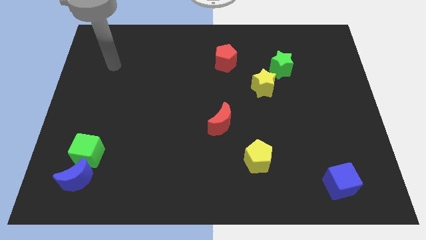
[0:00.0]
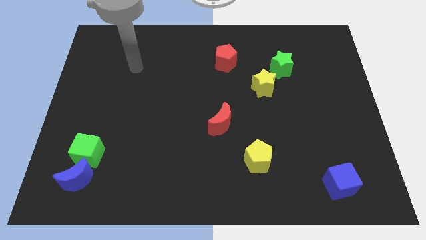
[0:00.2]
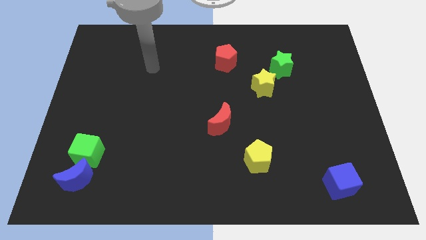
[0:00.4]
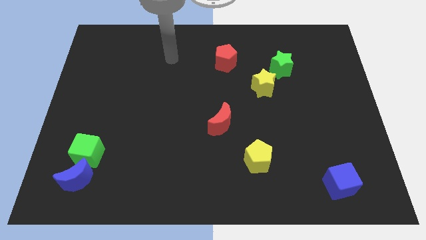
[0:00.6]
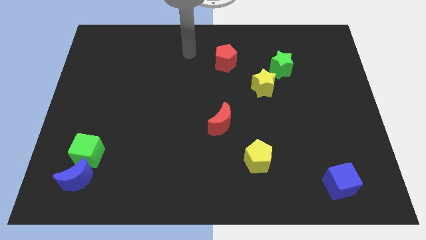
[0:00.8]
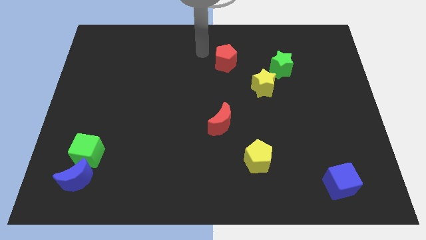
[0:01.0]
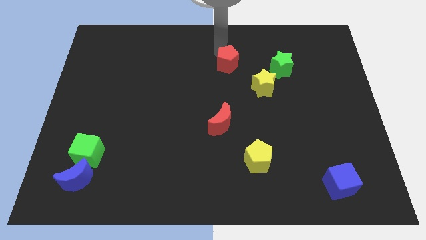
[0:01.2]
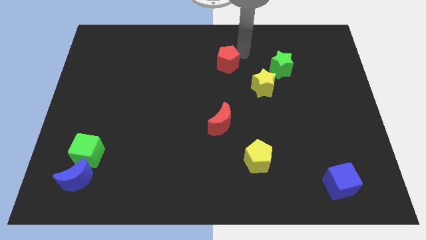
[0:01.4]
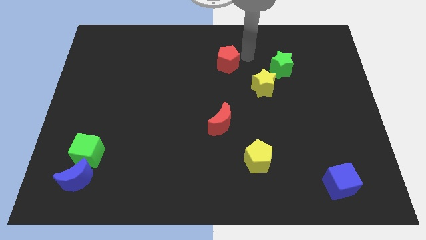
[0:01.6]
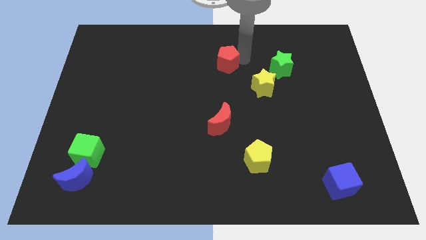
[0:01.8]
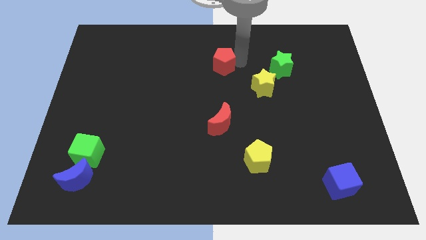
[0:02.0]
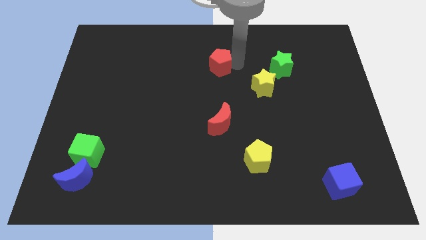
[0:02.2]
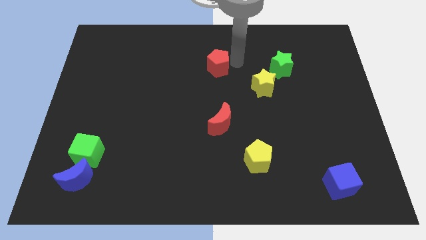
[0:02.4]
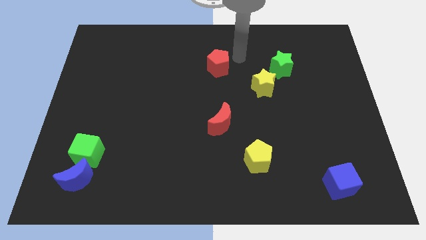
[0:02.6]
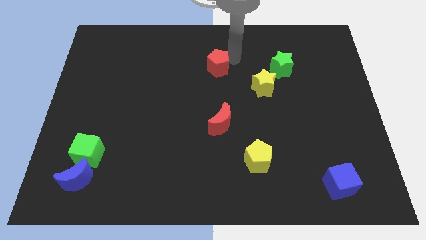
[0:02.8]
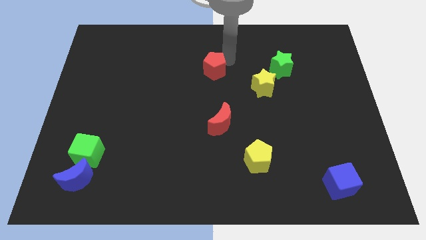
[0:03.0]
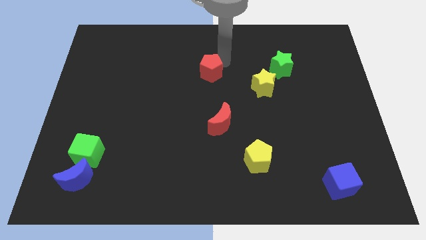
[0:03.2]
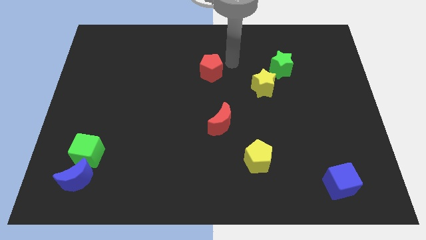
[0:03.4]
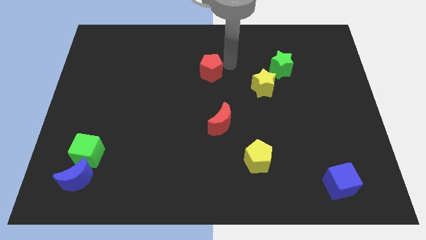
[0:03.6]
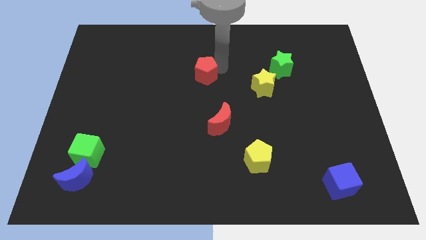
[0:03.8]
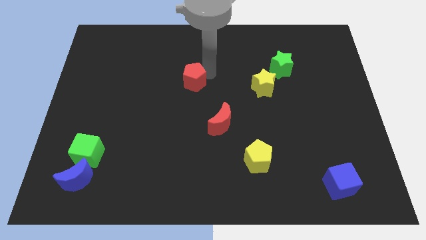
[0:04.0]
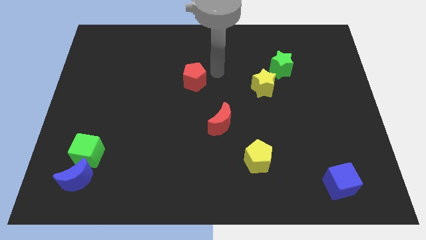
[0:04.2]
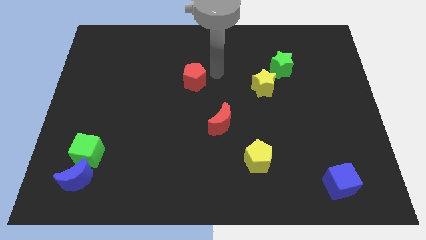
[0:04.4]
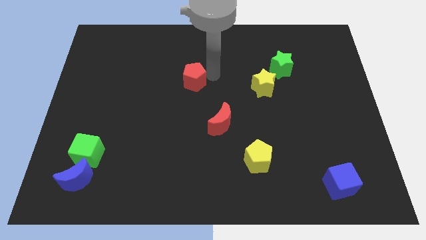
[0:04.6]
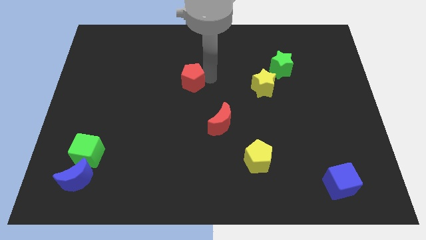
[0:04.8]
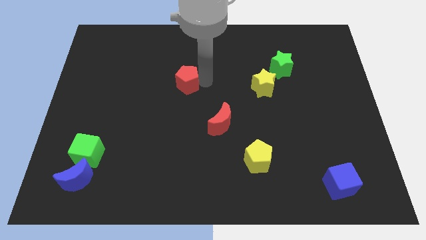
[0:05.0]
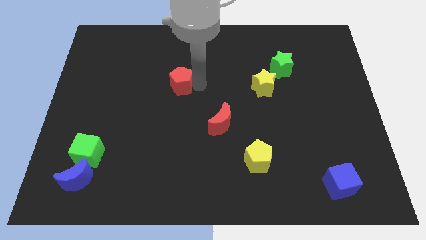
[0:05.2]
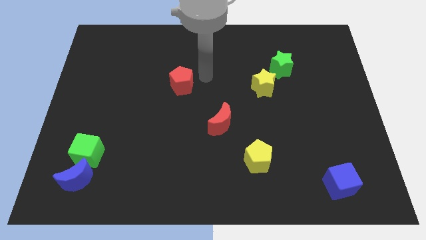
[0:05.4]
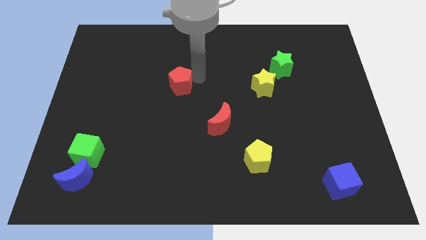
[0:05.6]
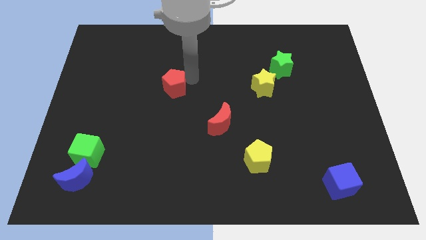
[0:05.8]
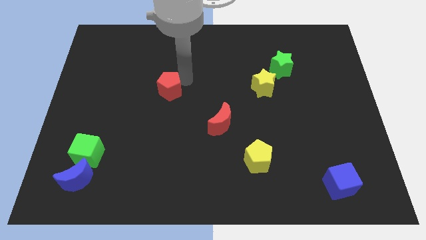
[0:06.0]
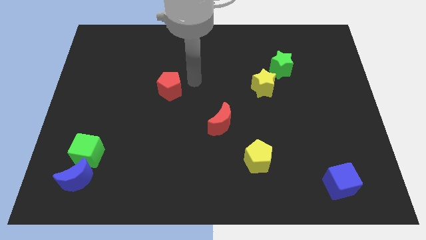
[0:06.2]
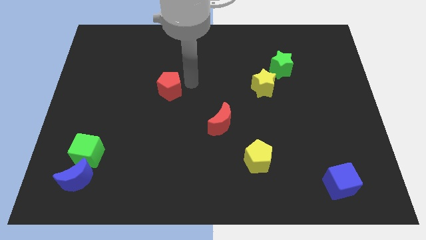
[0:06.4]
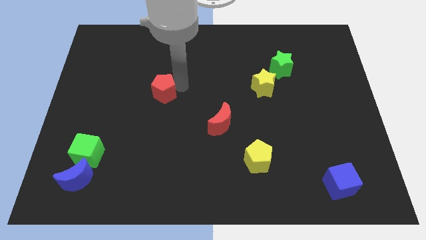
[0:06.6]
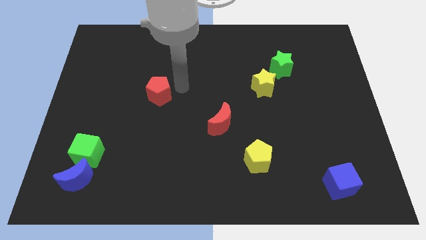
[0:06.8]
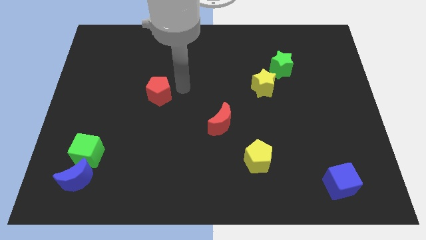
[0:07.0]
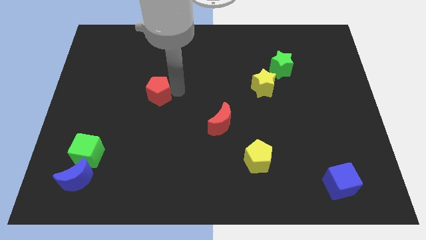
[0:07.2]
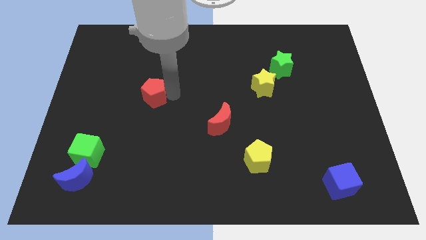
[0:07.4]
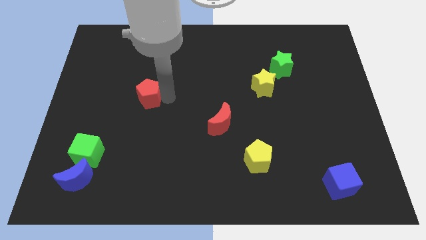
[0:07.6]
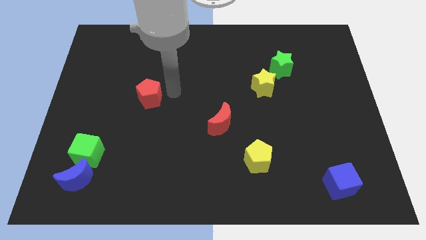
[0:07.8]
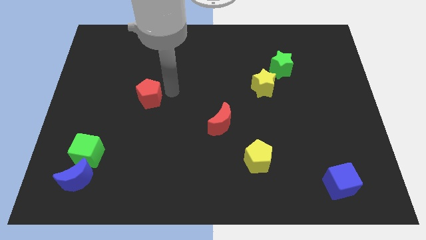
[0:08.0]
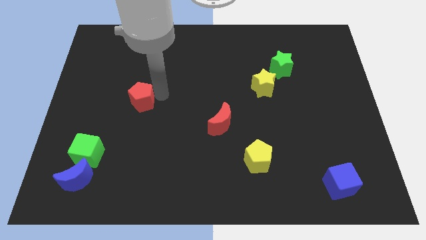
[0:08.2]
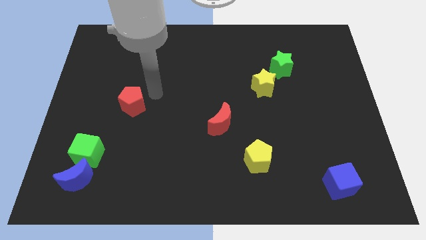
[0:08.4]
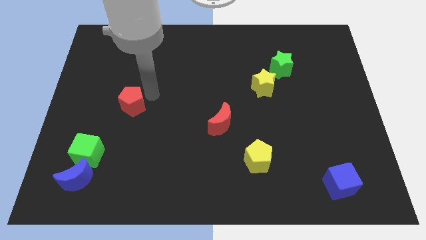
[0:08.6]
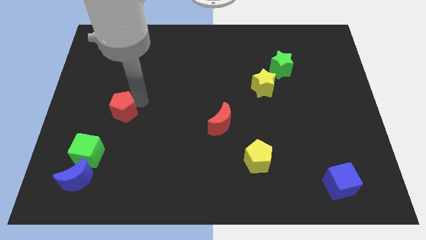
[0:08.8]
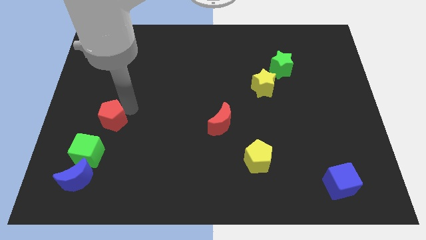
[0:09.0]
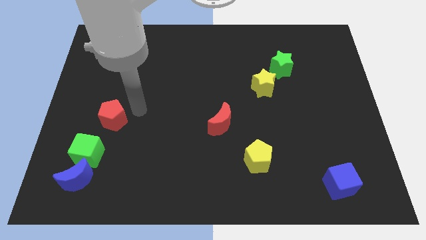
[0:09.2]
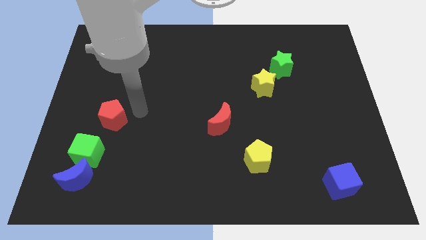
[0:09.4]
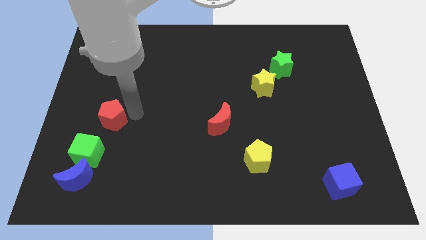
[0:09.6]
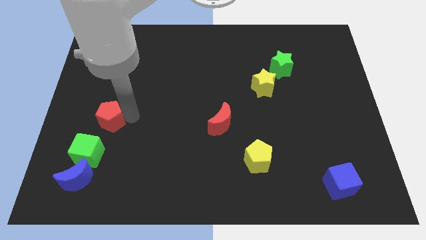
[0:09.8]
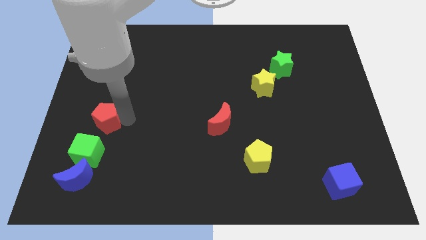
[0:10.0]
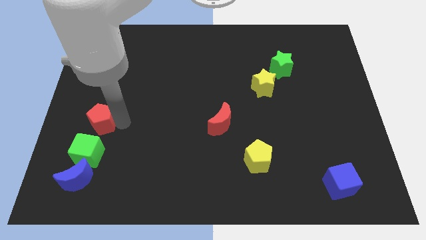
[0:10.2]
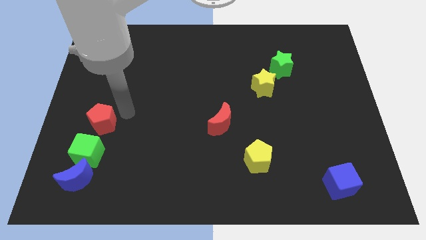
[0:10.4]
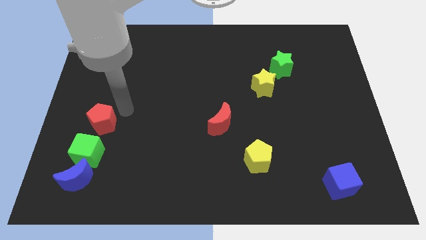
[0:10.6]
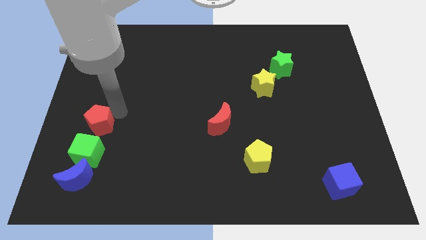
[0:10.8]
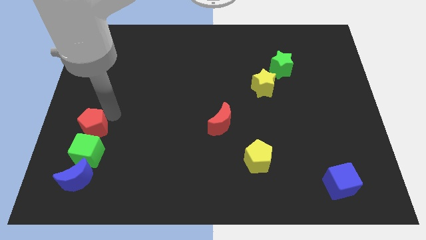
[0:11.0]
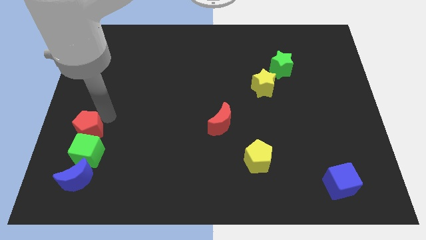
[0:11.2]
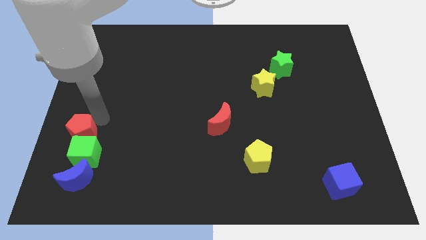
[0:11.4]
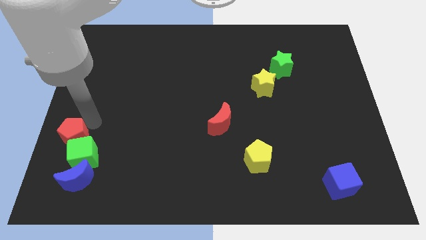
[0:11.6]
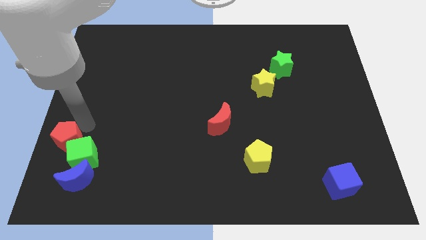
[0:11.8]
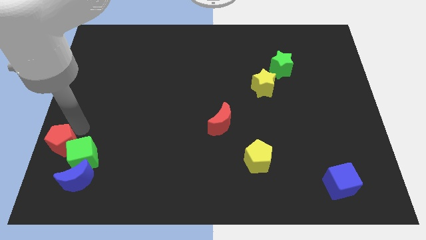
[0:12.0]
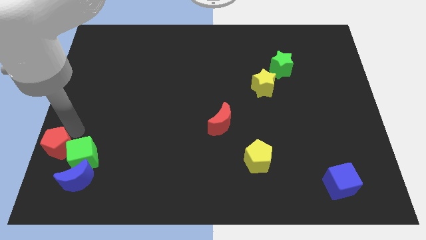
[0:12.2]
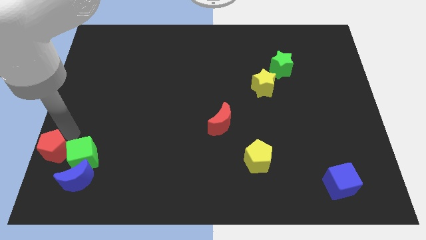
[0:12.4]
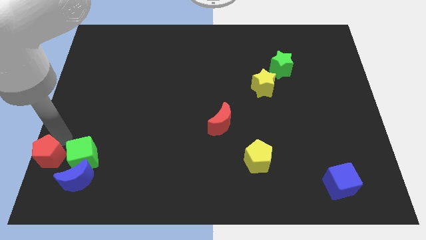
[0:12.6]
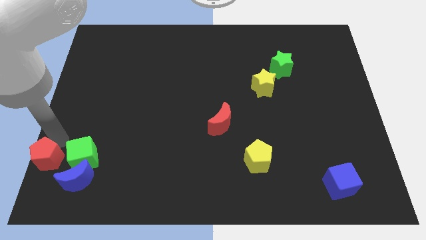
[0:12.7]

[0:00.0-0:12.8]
slide the red pentagon to the bottom left corner

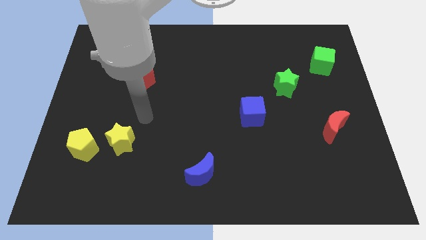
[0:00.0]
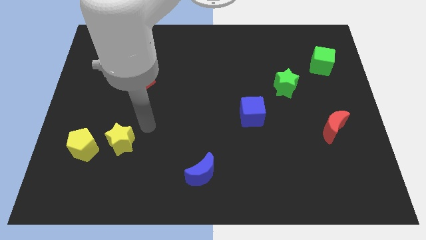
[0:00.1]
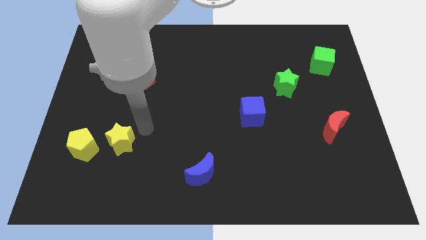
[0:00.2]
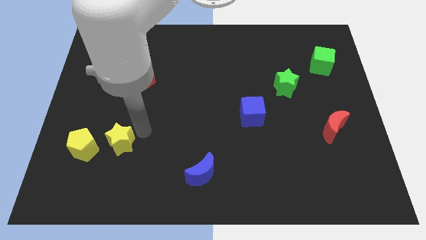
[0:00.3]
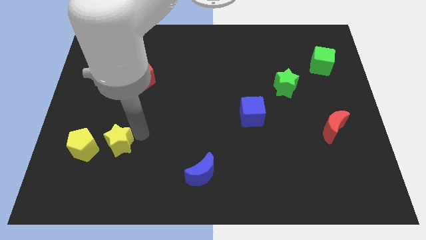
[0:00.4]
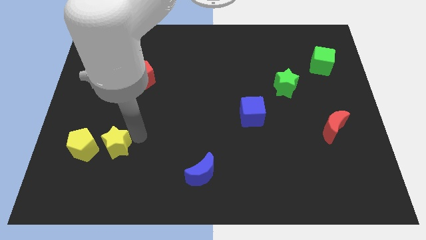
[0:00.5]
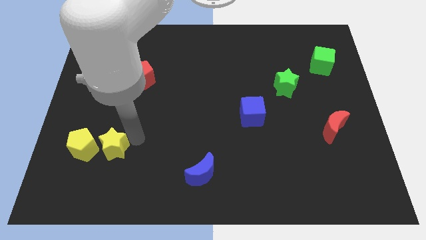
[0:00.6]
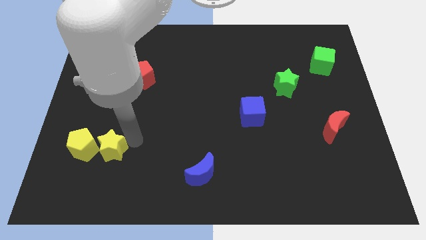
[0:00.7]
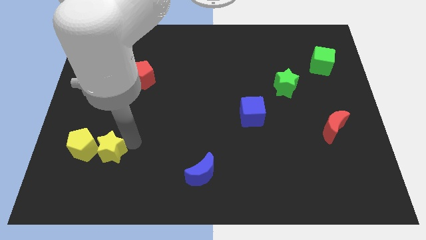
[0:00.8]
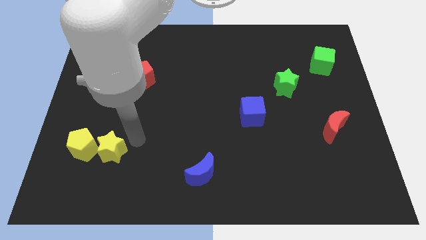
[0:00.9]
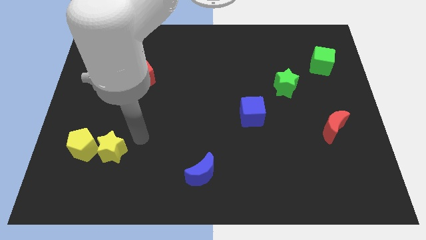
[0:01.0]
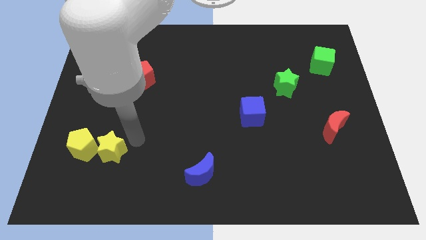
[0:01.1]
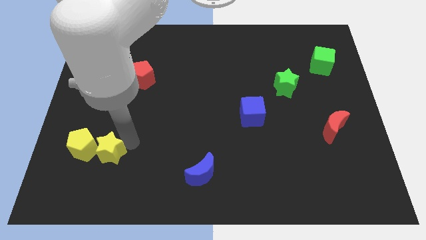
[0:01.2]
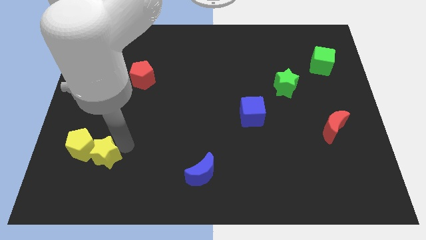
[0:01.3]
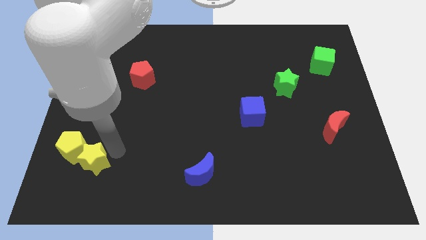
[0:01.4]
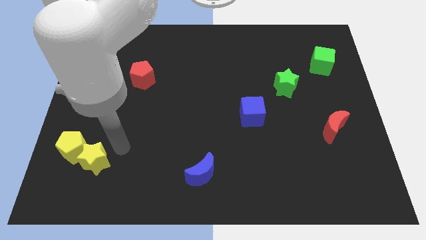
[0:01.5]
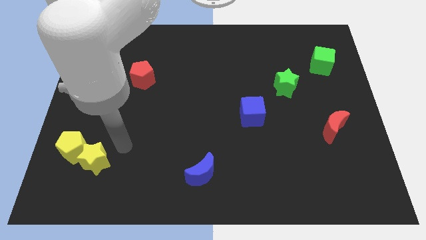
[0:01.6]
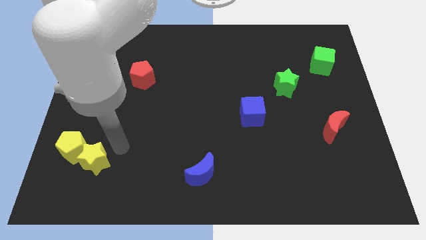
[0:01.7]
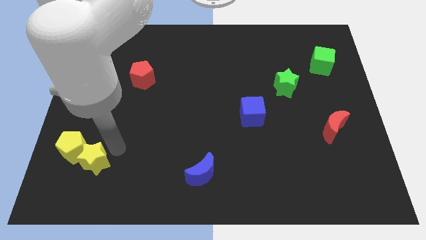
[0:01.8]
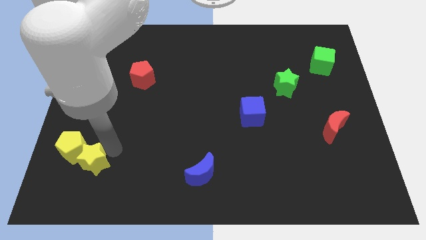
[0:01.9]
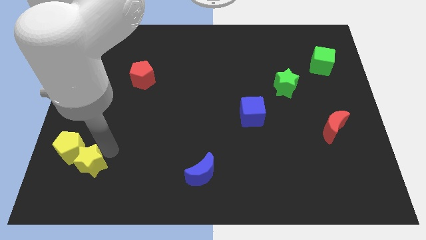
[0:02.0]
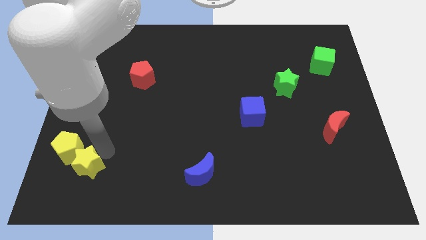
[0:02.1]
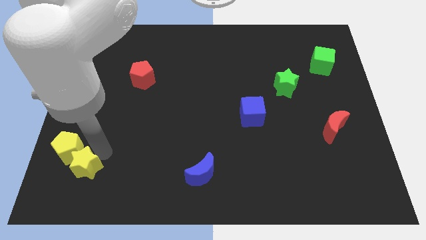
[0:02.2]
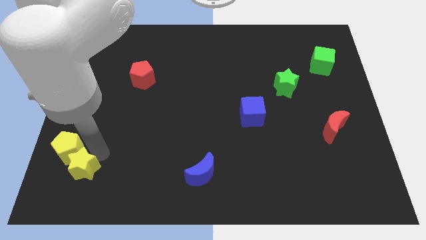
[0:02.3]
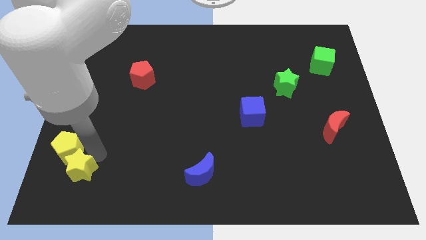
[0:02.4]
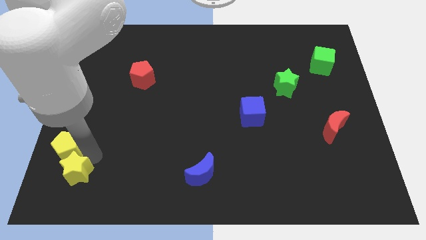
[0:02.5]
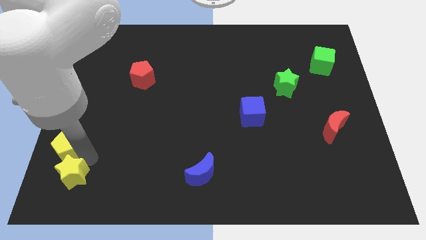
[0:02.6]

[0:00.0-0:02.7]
move the yellow star to the bottom left
